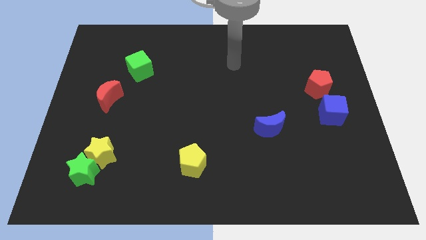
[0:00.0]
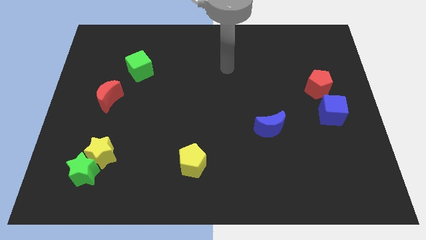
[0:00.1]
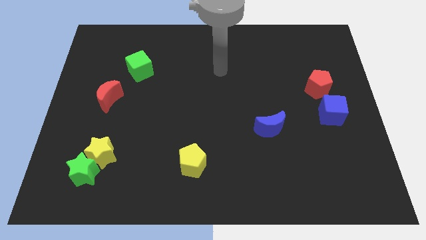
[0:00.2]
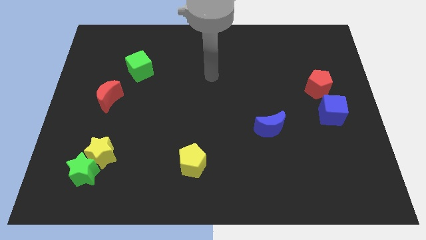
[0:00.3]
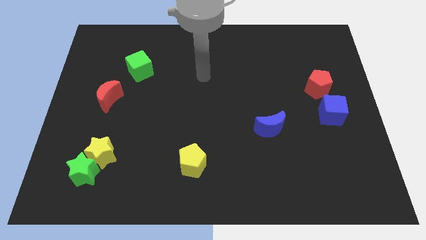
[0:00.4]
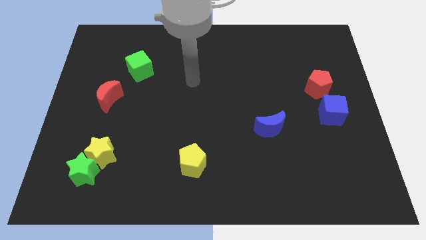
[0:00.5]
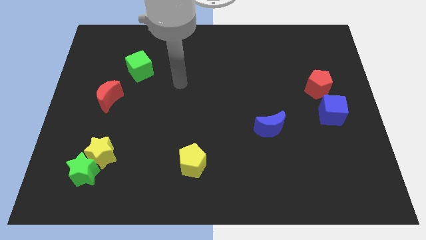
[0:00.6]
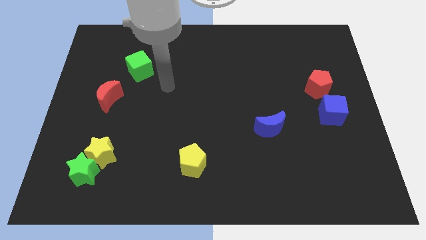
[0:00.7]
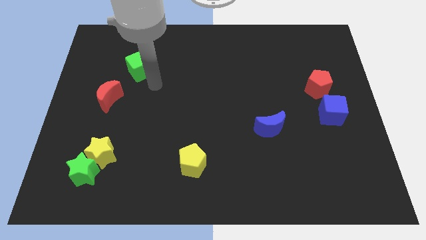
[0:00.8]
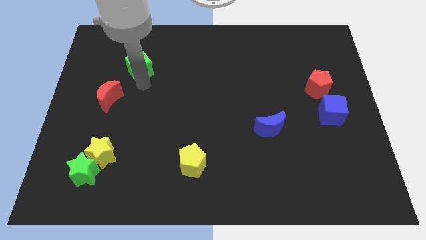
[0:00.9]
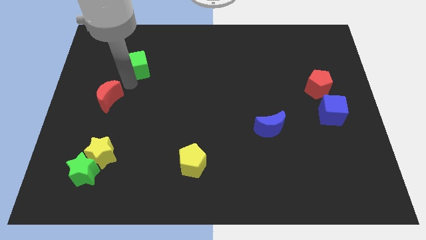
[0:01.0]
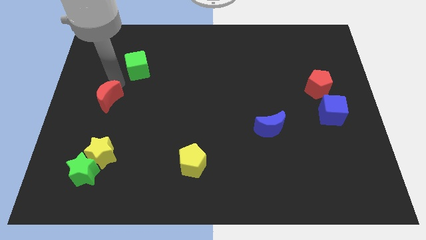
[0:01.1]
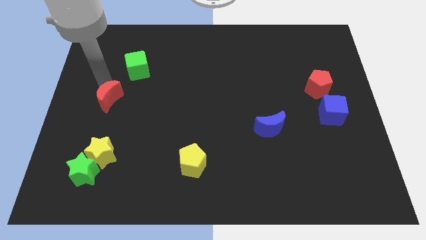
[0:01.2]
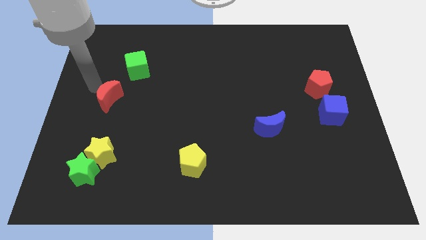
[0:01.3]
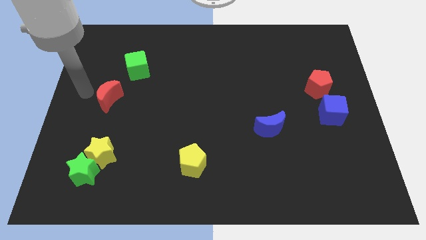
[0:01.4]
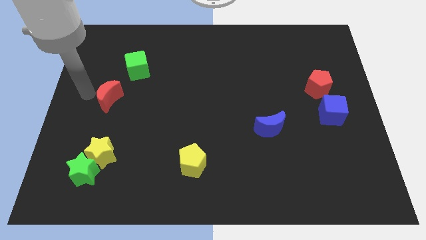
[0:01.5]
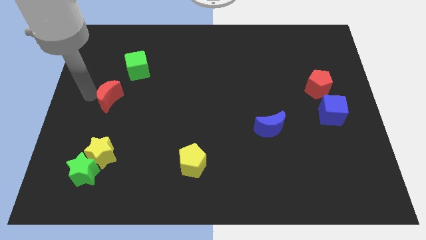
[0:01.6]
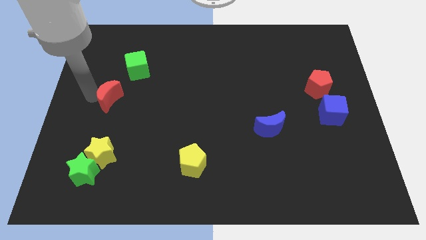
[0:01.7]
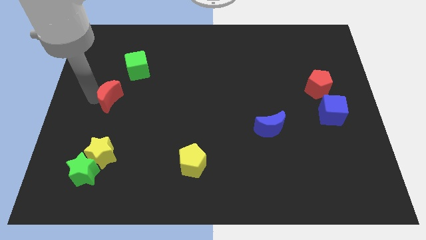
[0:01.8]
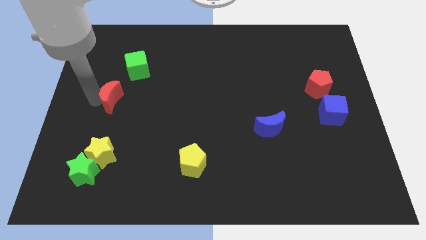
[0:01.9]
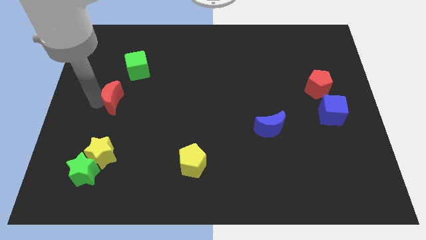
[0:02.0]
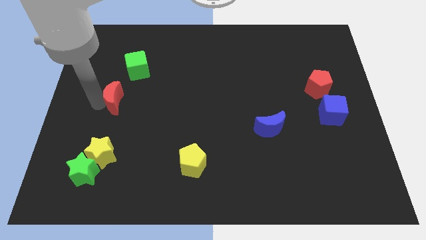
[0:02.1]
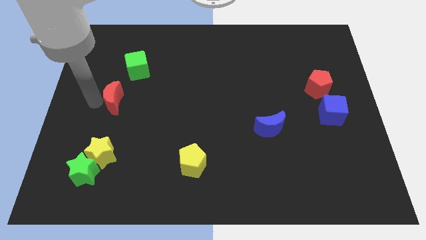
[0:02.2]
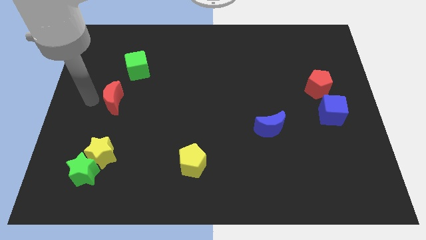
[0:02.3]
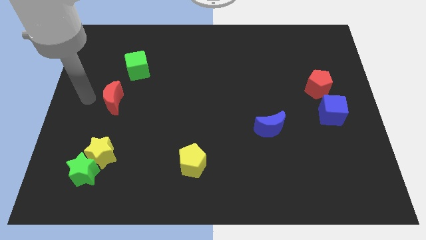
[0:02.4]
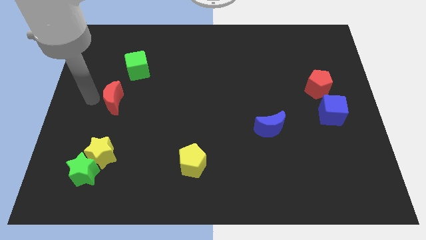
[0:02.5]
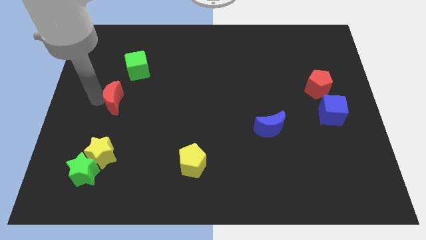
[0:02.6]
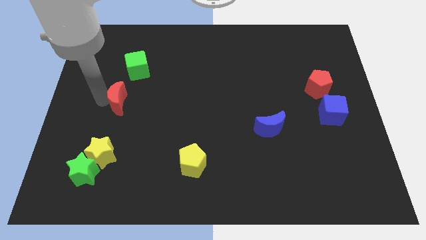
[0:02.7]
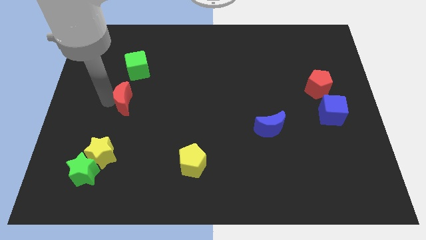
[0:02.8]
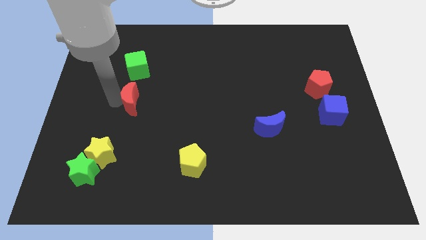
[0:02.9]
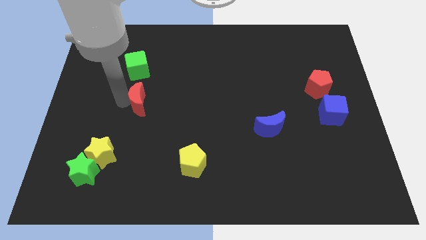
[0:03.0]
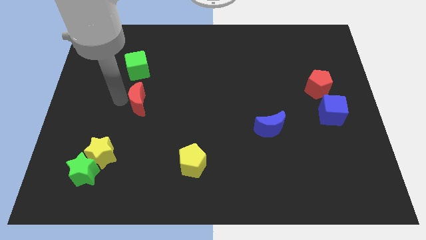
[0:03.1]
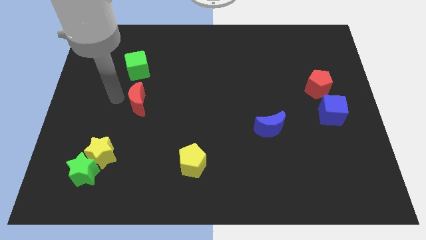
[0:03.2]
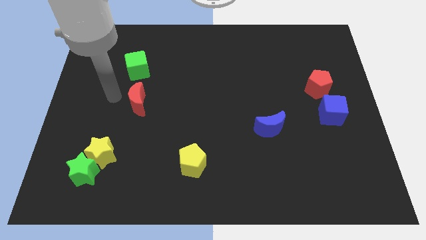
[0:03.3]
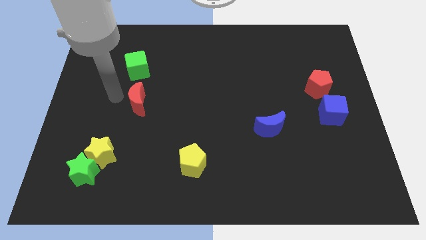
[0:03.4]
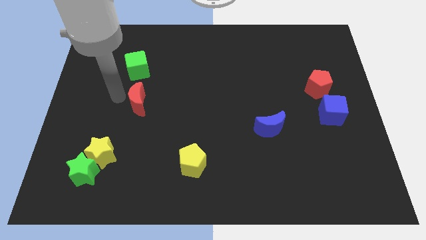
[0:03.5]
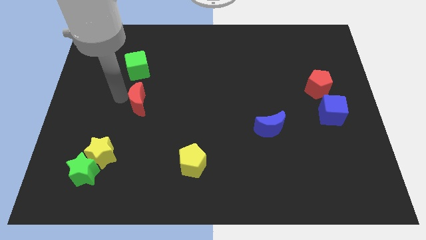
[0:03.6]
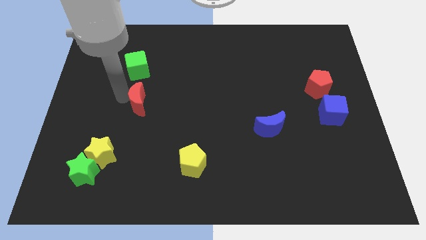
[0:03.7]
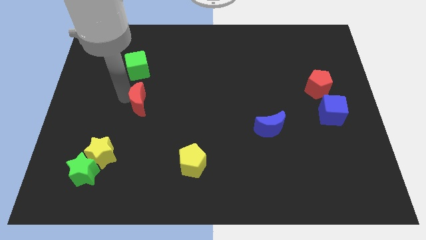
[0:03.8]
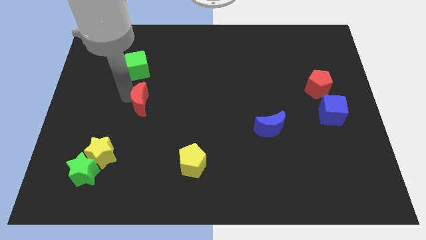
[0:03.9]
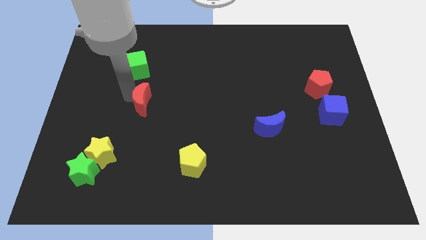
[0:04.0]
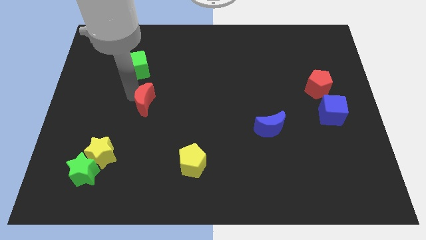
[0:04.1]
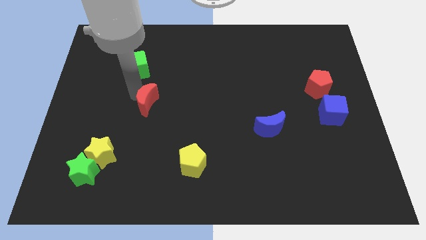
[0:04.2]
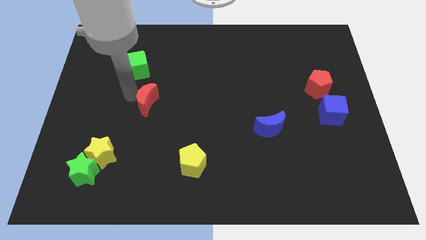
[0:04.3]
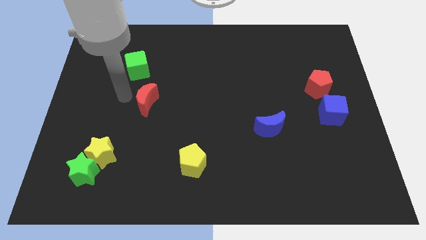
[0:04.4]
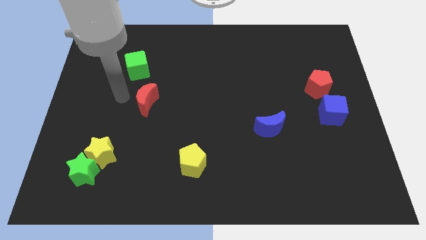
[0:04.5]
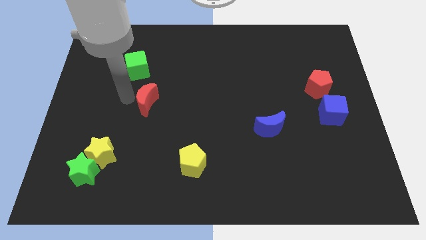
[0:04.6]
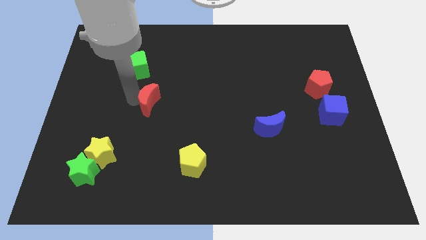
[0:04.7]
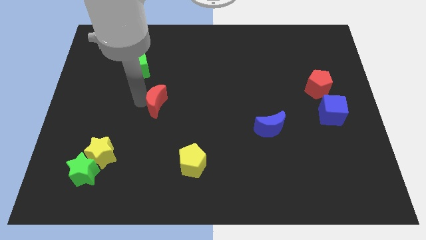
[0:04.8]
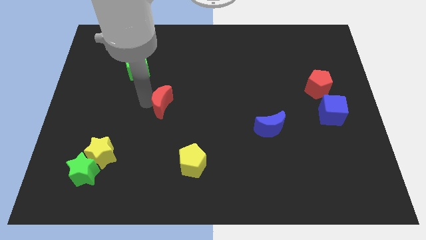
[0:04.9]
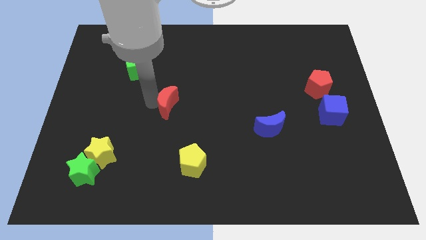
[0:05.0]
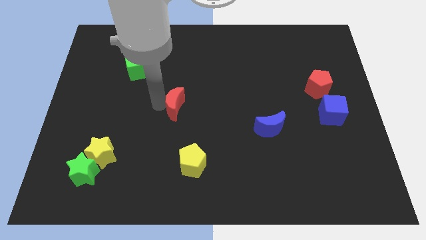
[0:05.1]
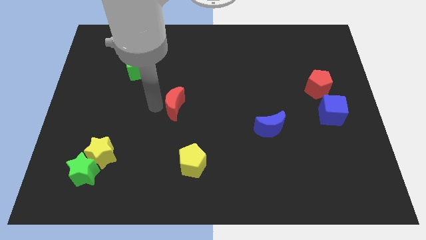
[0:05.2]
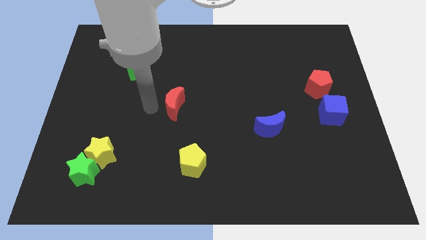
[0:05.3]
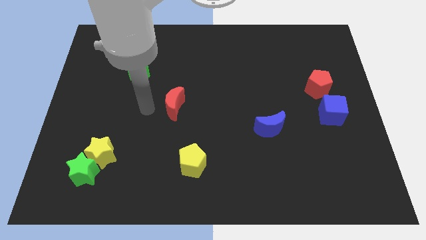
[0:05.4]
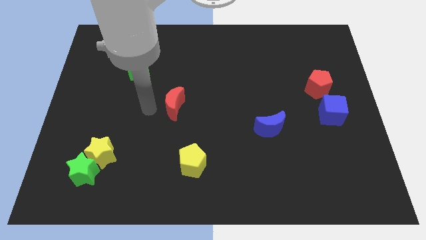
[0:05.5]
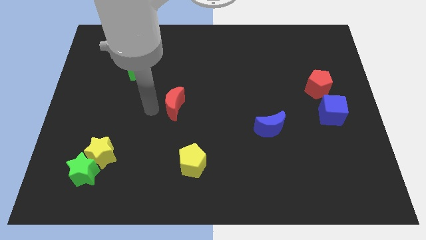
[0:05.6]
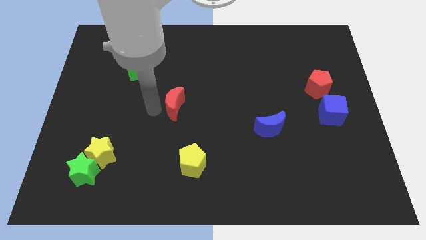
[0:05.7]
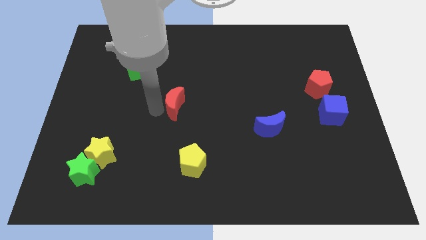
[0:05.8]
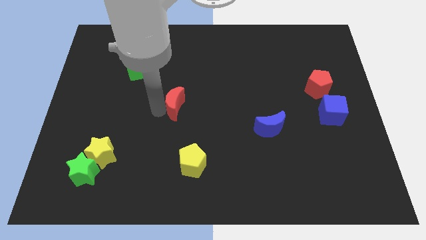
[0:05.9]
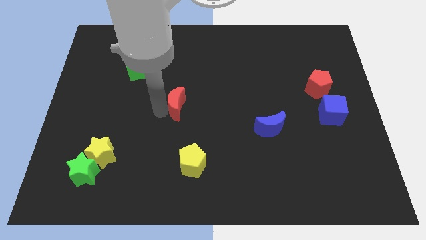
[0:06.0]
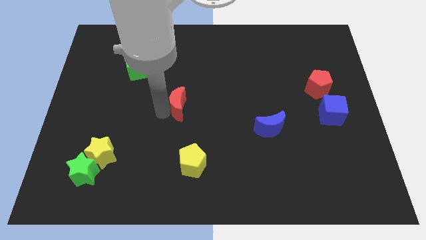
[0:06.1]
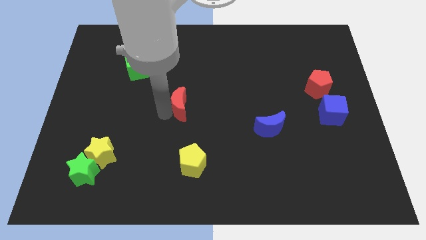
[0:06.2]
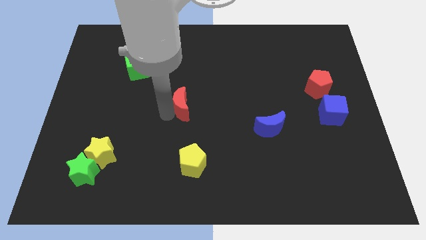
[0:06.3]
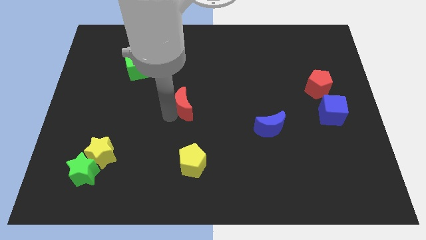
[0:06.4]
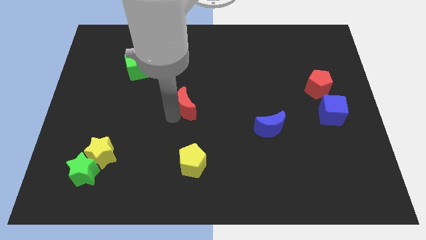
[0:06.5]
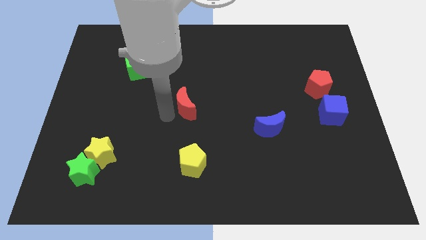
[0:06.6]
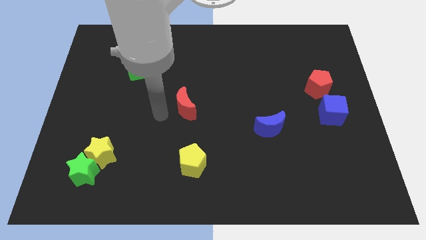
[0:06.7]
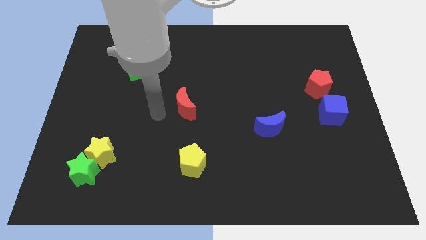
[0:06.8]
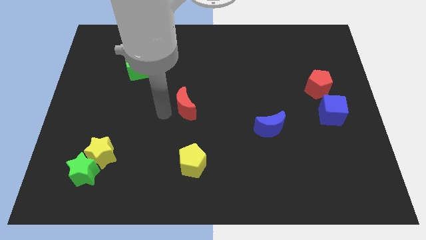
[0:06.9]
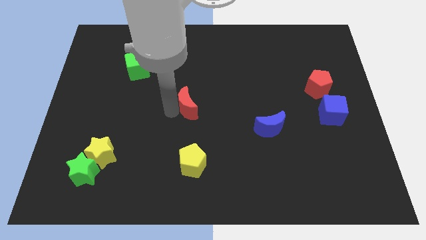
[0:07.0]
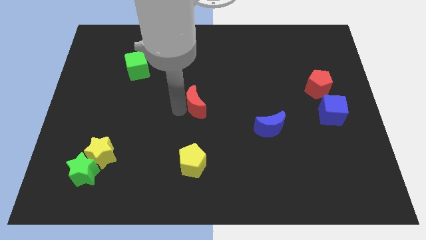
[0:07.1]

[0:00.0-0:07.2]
slide the red moon right

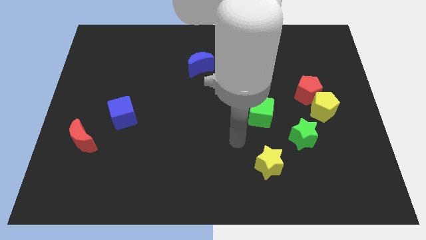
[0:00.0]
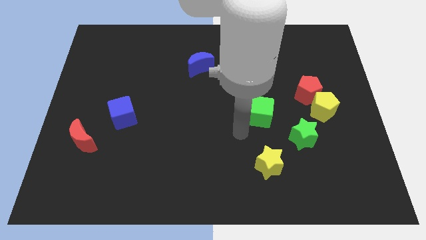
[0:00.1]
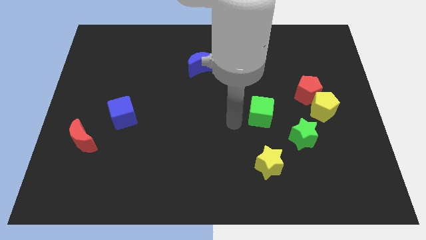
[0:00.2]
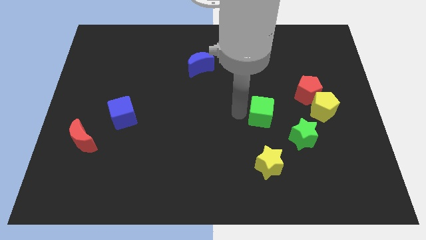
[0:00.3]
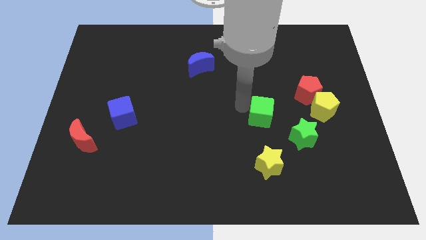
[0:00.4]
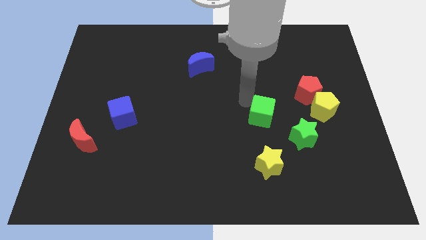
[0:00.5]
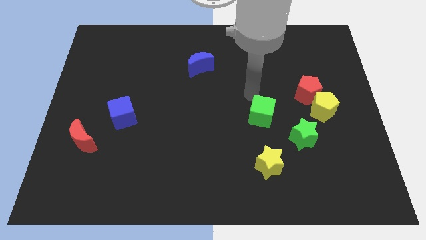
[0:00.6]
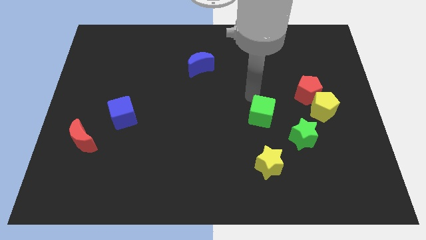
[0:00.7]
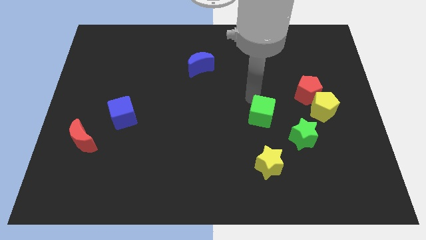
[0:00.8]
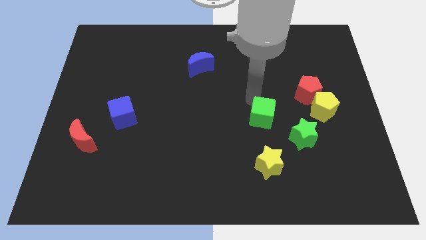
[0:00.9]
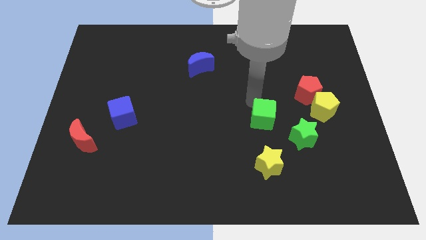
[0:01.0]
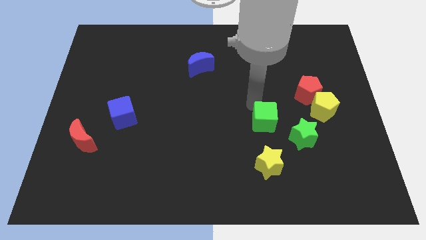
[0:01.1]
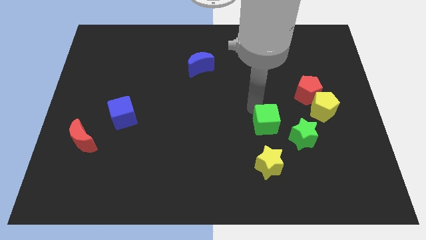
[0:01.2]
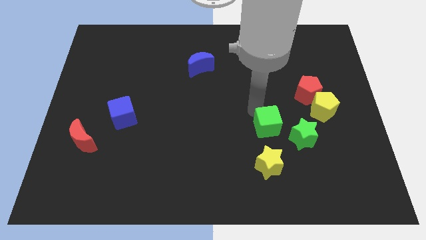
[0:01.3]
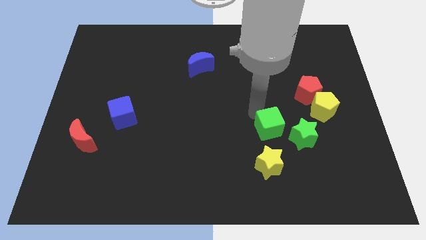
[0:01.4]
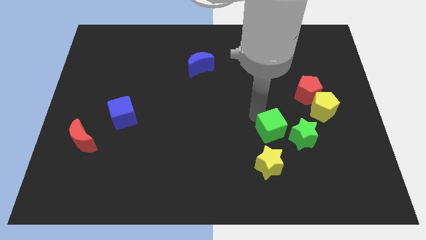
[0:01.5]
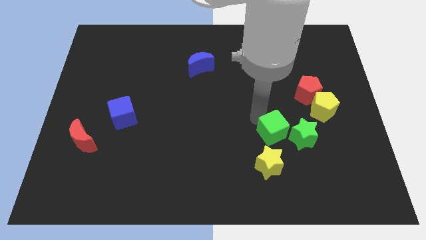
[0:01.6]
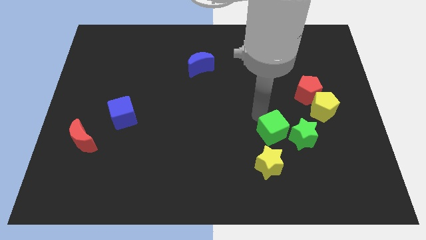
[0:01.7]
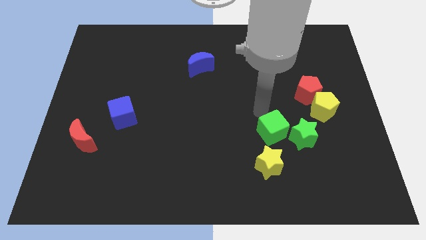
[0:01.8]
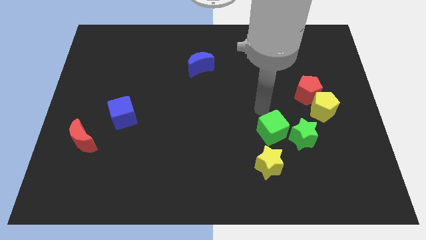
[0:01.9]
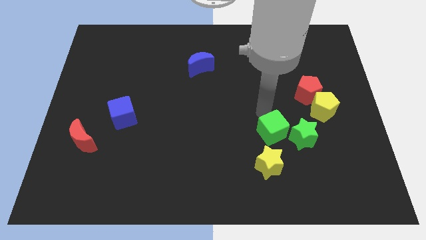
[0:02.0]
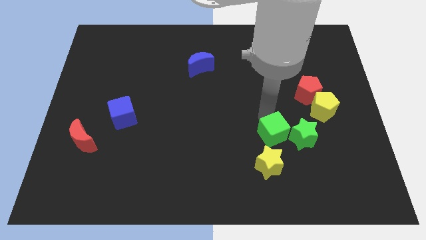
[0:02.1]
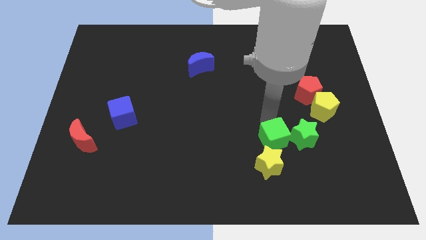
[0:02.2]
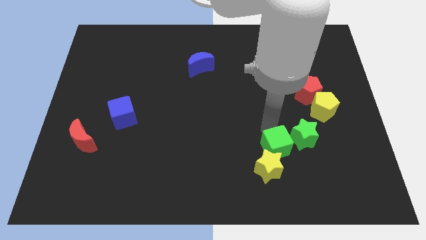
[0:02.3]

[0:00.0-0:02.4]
slide the green cube downwards and to the right somewhat
